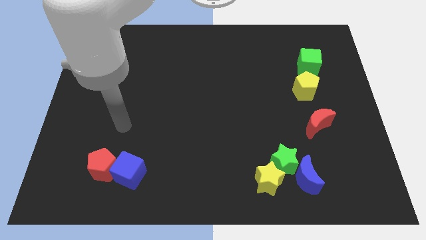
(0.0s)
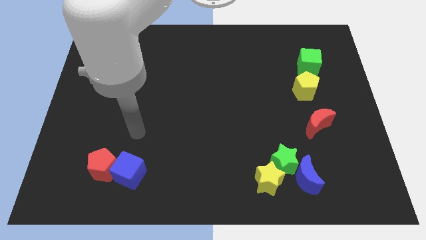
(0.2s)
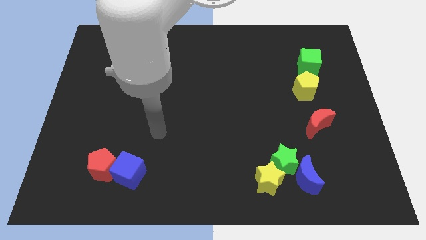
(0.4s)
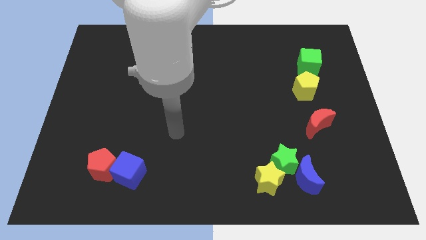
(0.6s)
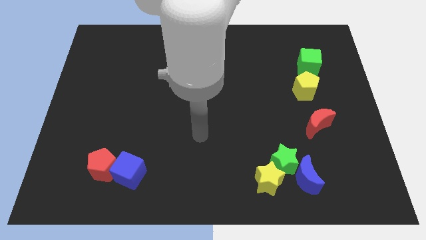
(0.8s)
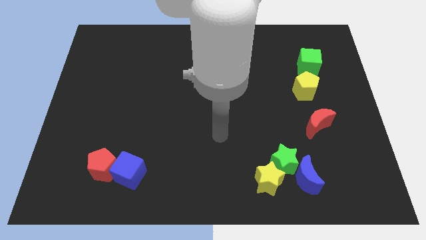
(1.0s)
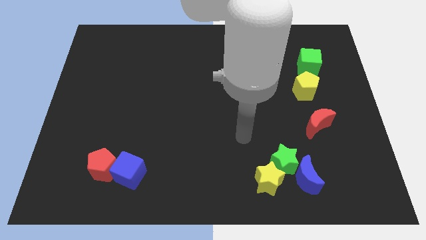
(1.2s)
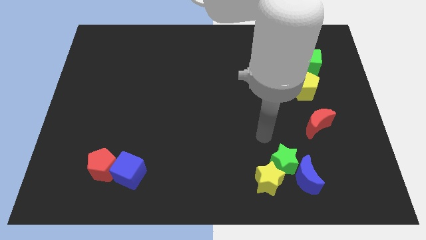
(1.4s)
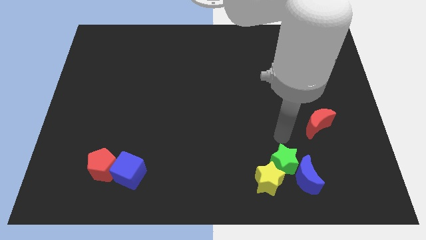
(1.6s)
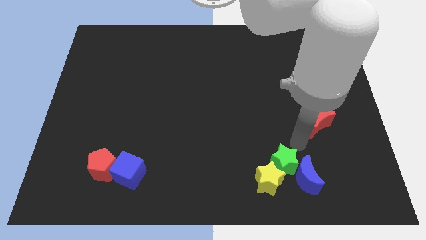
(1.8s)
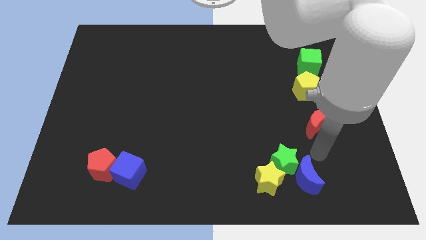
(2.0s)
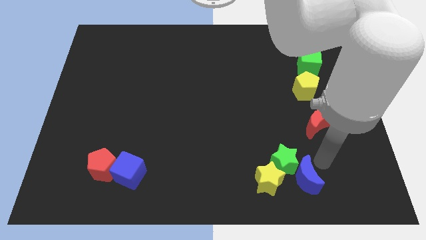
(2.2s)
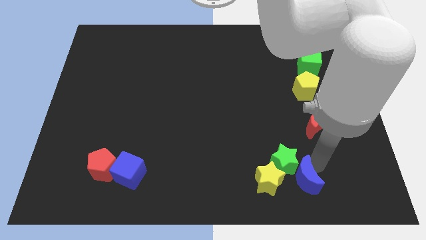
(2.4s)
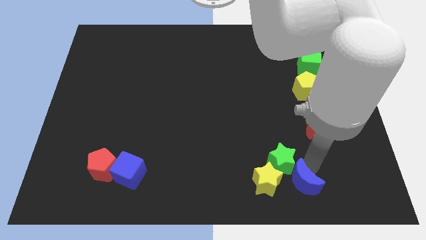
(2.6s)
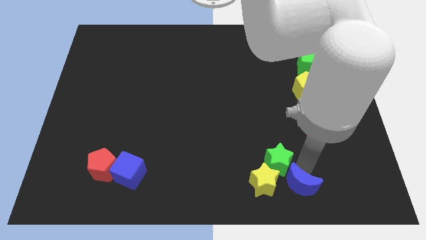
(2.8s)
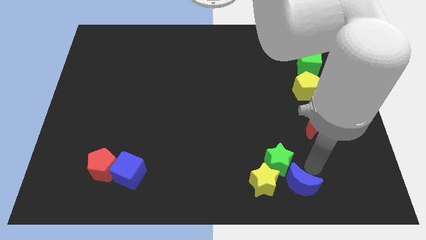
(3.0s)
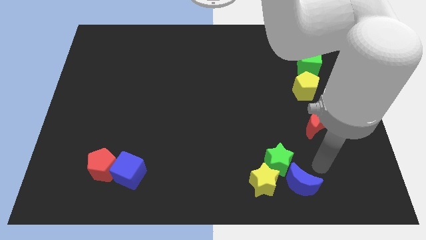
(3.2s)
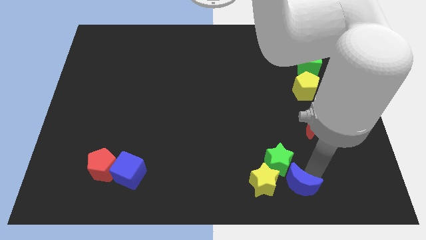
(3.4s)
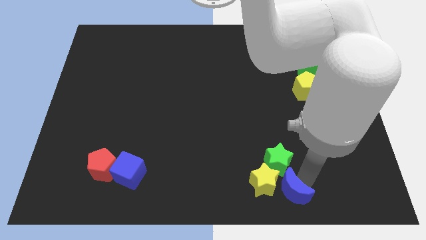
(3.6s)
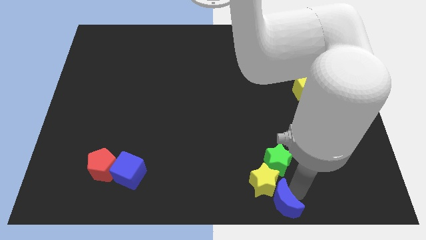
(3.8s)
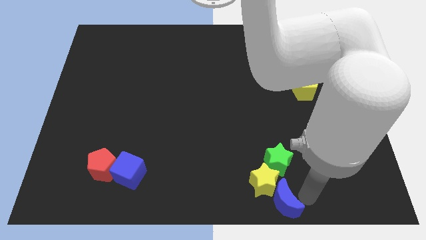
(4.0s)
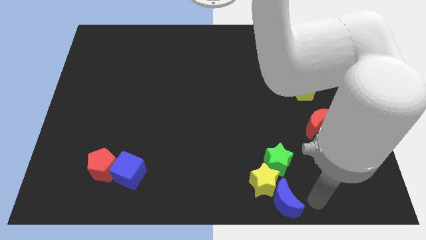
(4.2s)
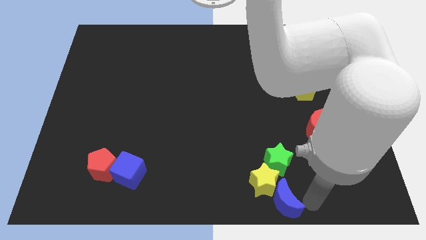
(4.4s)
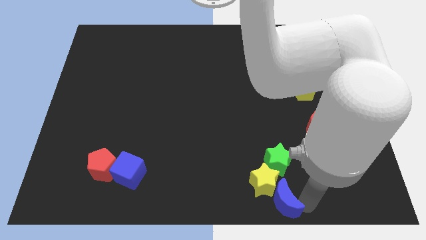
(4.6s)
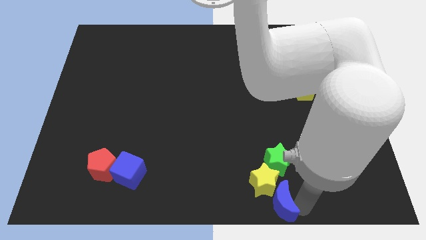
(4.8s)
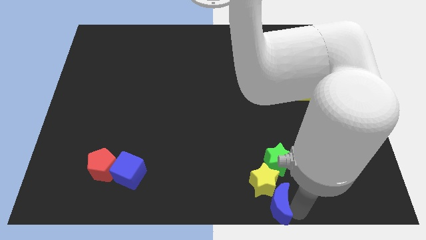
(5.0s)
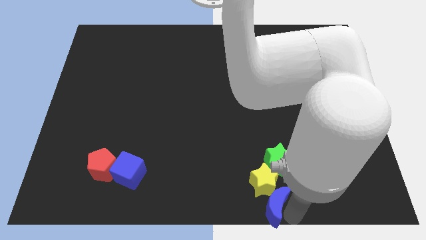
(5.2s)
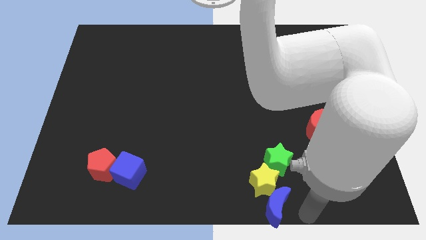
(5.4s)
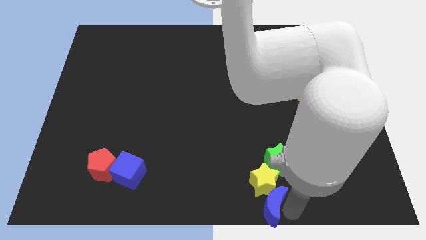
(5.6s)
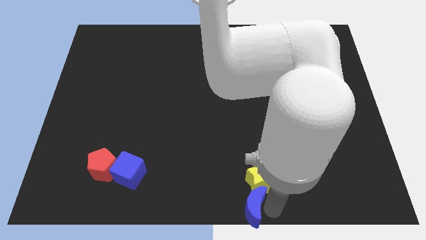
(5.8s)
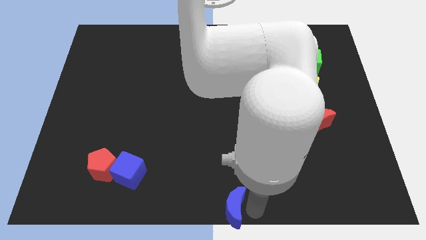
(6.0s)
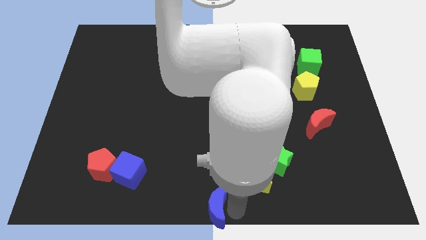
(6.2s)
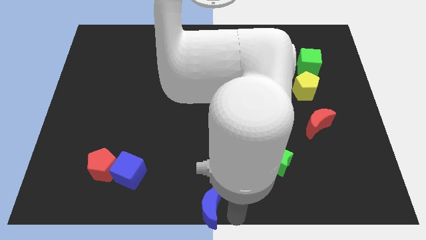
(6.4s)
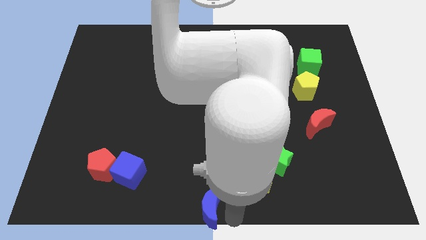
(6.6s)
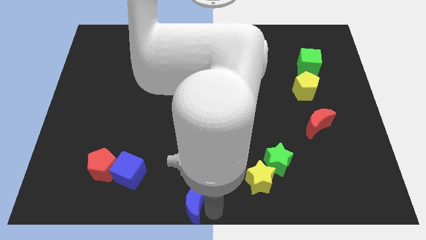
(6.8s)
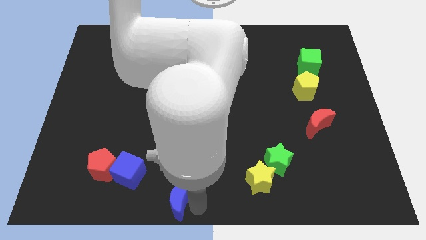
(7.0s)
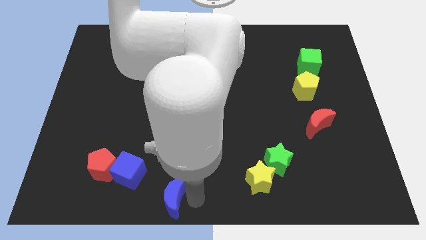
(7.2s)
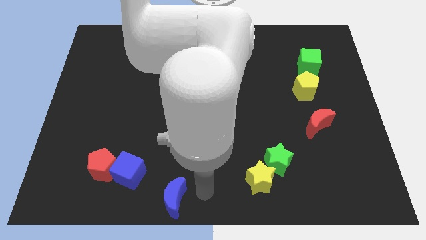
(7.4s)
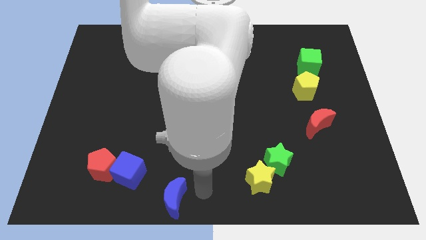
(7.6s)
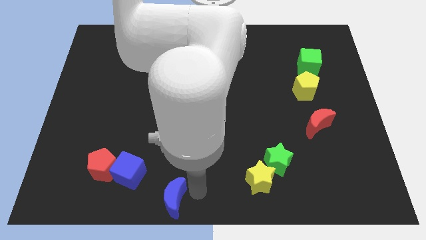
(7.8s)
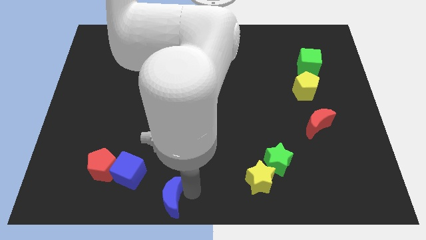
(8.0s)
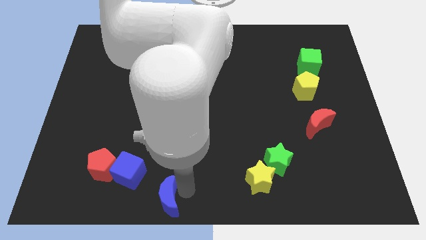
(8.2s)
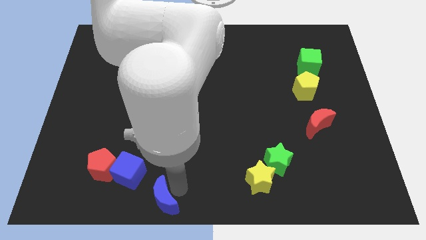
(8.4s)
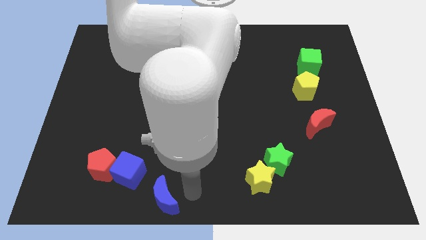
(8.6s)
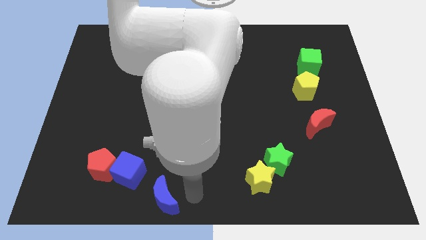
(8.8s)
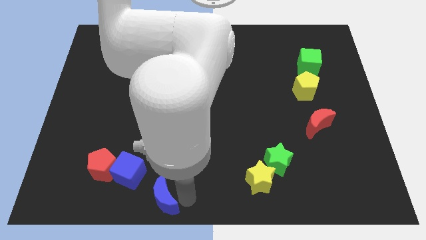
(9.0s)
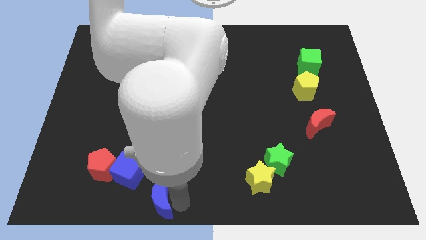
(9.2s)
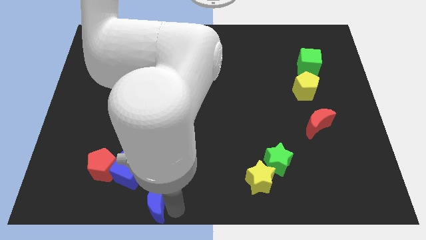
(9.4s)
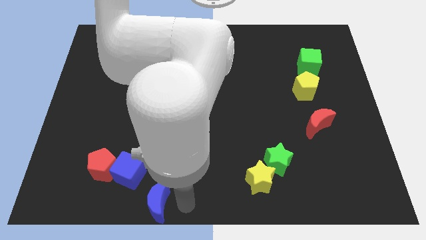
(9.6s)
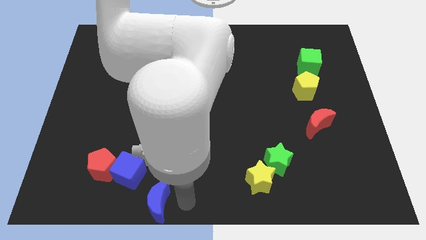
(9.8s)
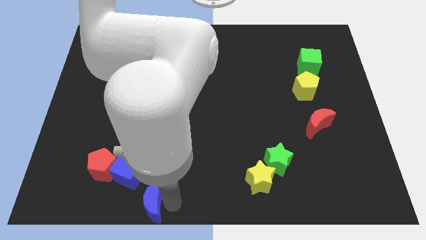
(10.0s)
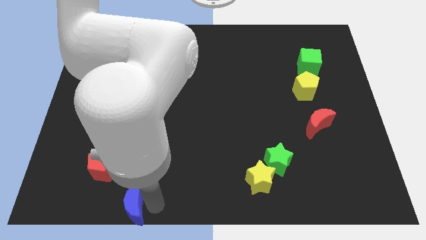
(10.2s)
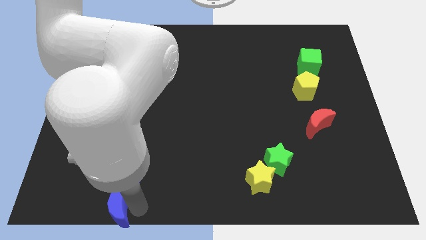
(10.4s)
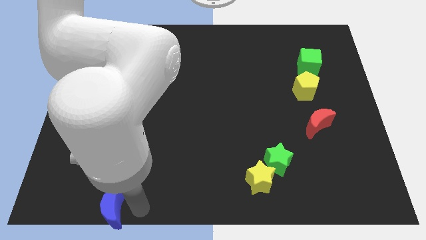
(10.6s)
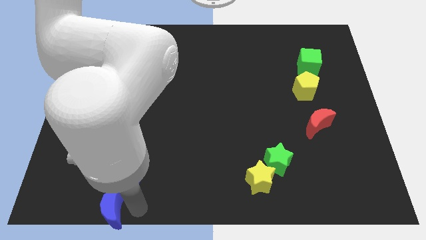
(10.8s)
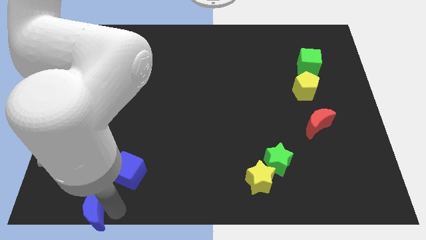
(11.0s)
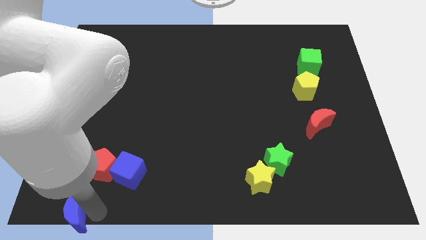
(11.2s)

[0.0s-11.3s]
slide the blue moon to the lower left corner

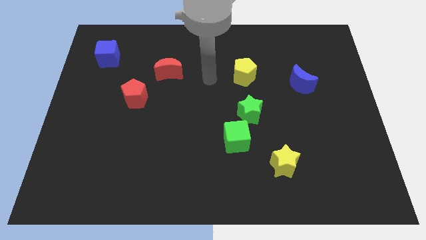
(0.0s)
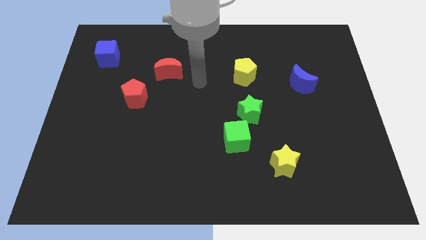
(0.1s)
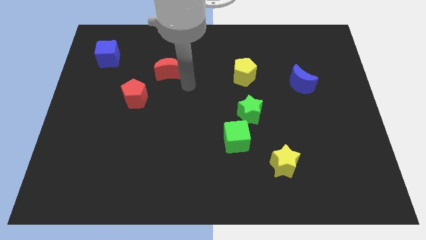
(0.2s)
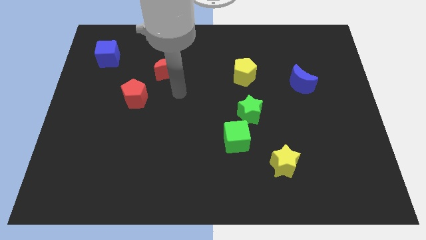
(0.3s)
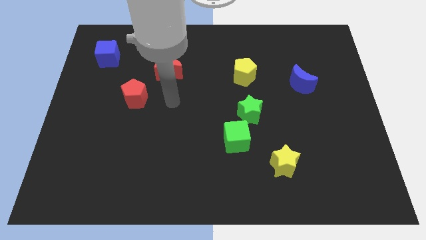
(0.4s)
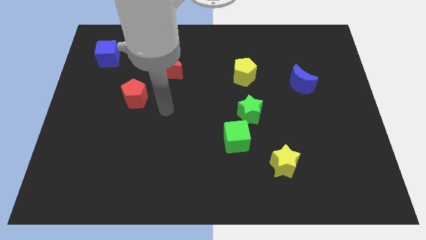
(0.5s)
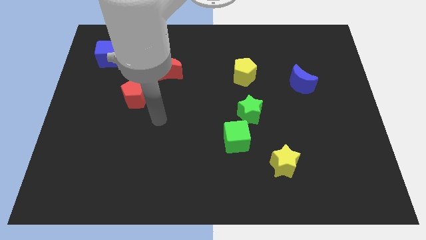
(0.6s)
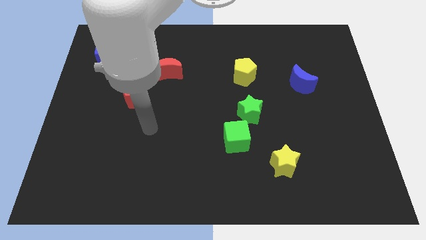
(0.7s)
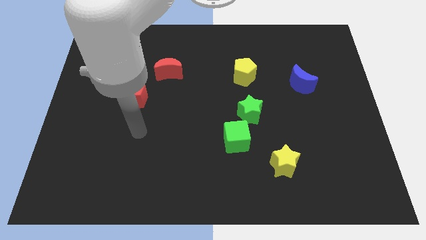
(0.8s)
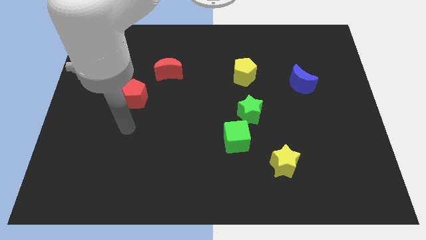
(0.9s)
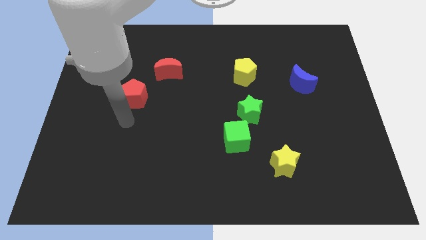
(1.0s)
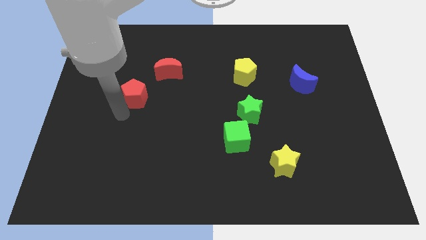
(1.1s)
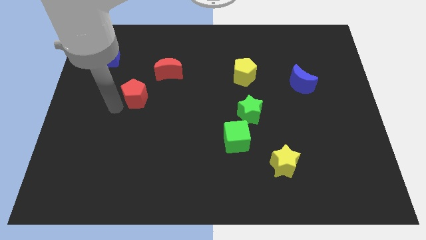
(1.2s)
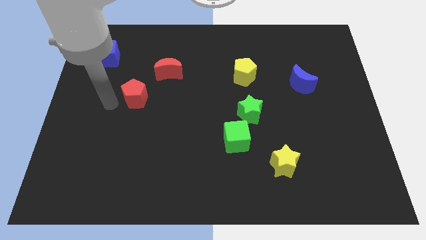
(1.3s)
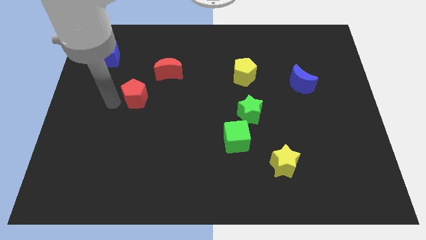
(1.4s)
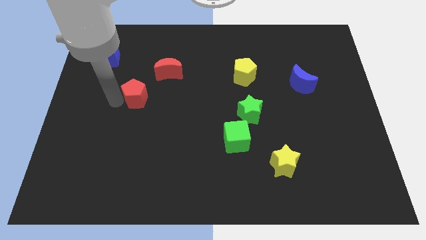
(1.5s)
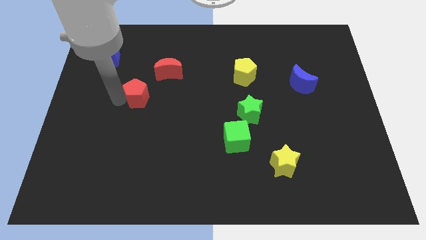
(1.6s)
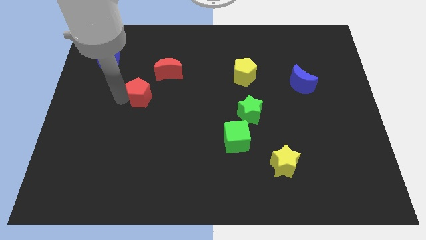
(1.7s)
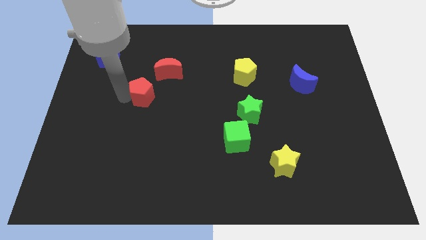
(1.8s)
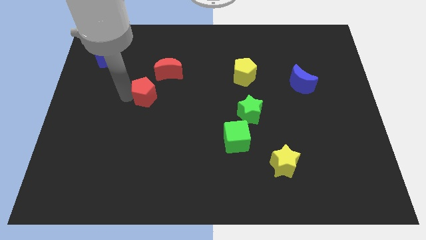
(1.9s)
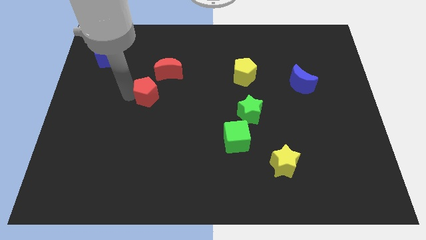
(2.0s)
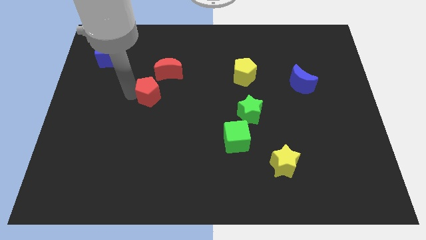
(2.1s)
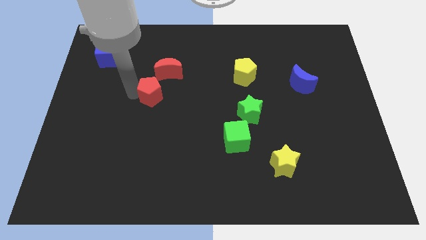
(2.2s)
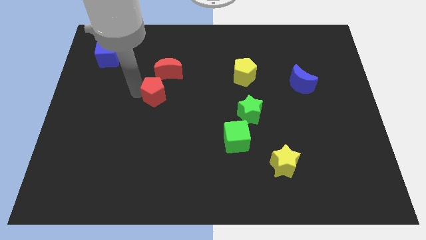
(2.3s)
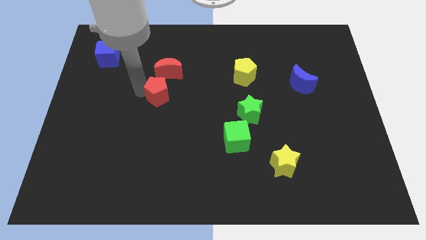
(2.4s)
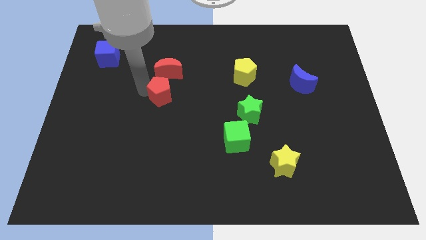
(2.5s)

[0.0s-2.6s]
move the red pentagon to the middle
